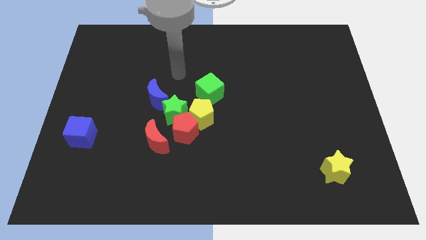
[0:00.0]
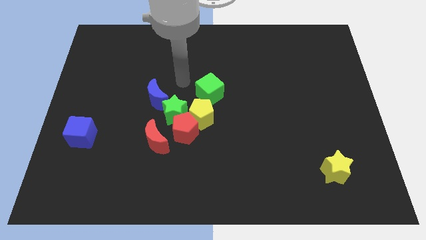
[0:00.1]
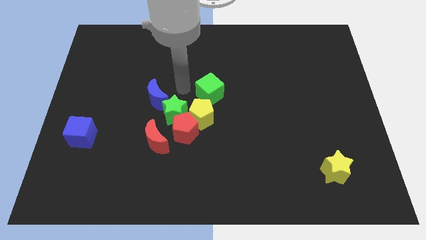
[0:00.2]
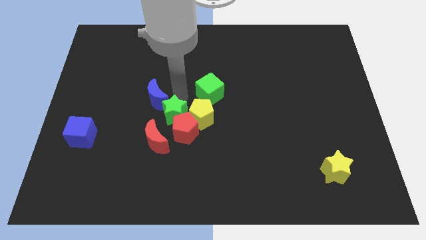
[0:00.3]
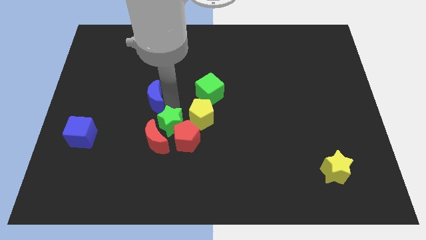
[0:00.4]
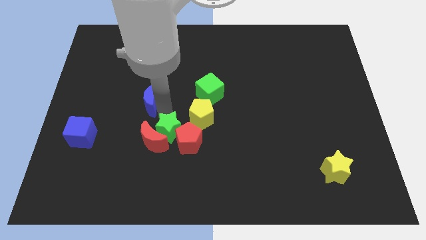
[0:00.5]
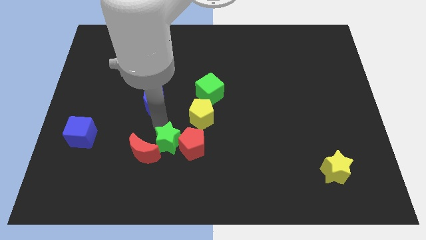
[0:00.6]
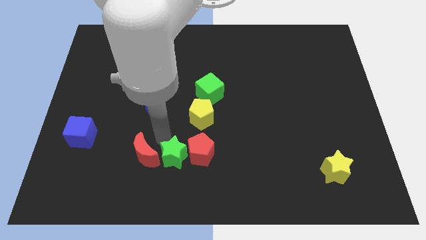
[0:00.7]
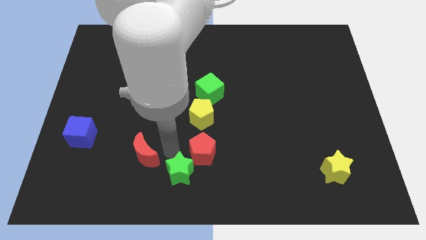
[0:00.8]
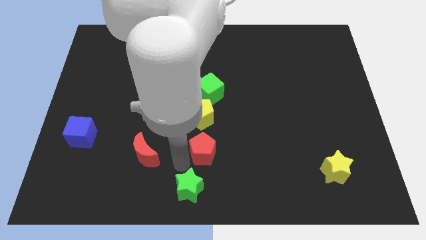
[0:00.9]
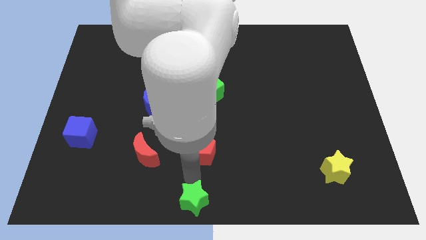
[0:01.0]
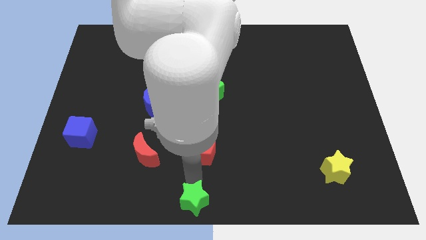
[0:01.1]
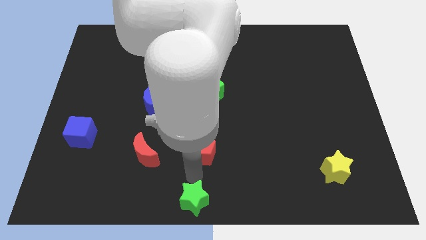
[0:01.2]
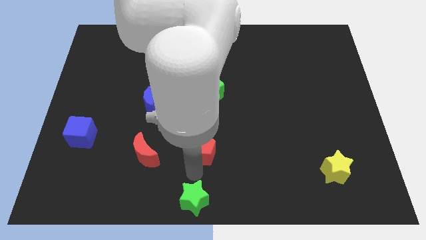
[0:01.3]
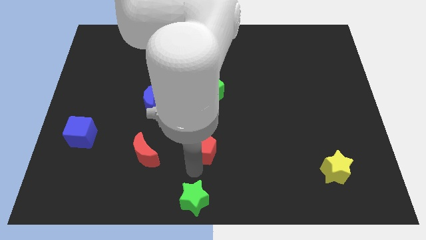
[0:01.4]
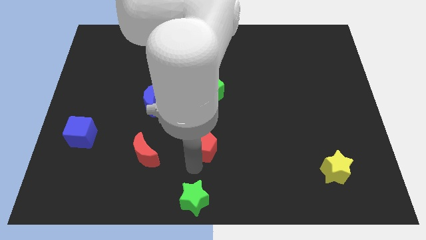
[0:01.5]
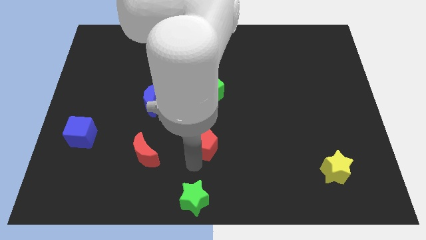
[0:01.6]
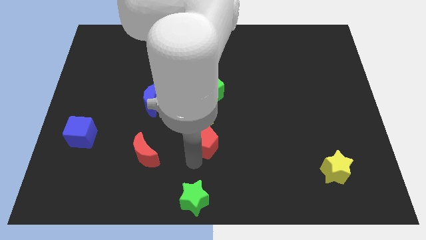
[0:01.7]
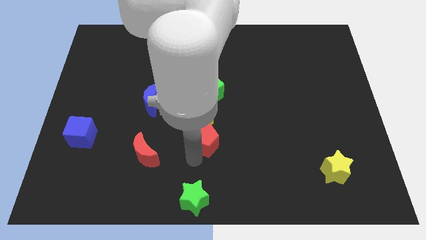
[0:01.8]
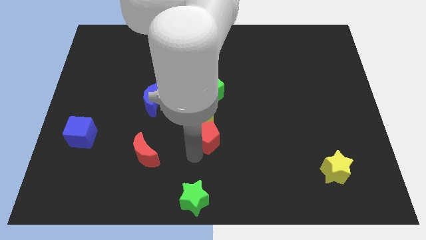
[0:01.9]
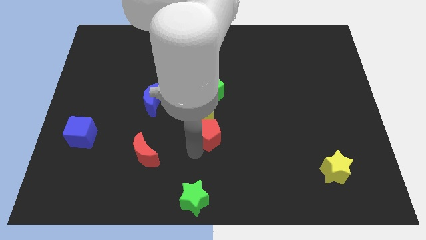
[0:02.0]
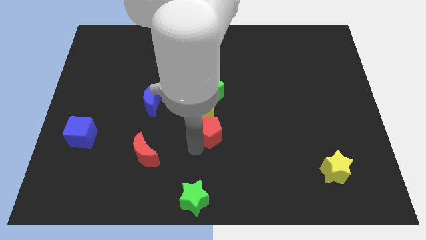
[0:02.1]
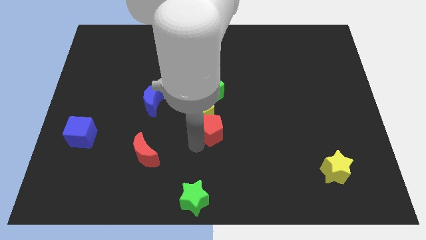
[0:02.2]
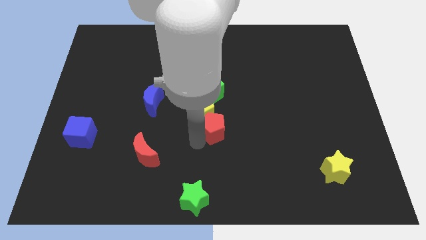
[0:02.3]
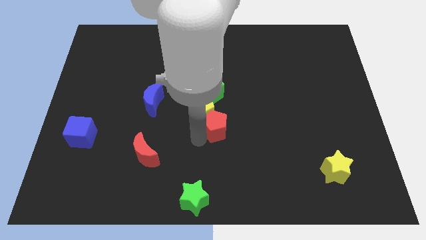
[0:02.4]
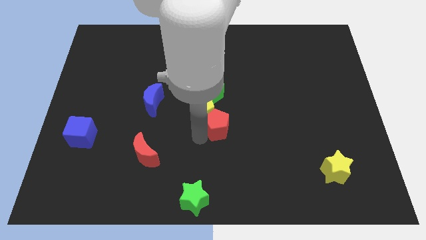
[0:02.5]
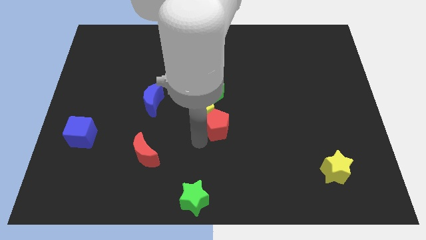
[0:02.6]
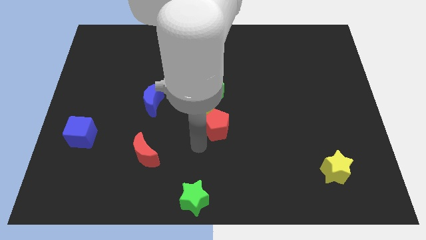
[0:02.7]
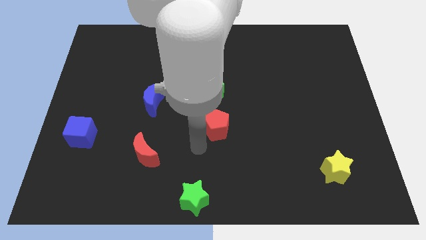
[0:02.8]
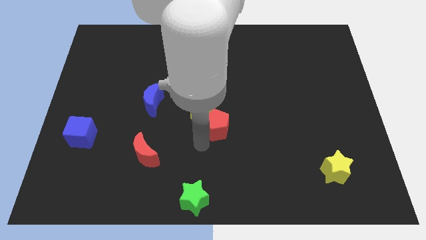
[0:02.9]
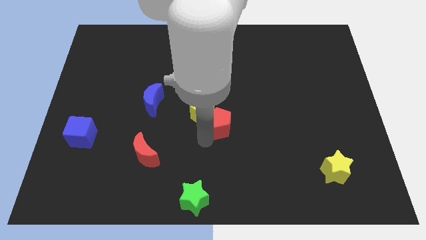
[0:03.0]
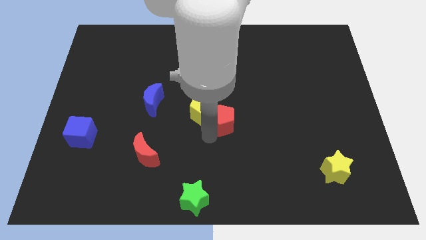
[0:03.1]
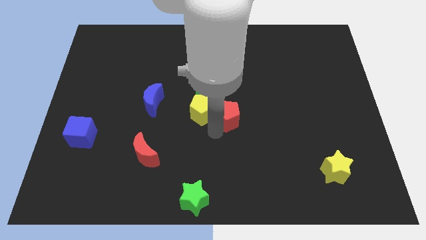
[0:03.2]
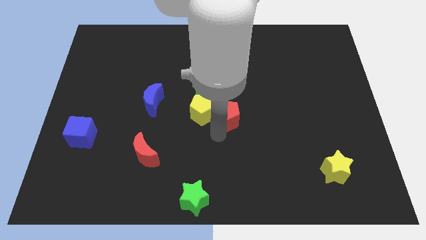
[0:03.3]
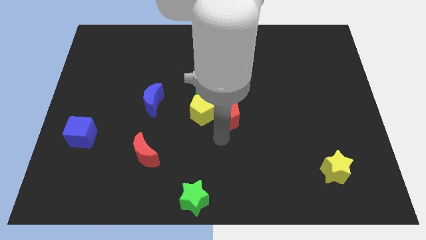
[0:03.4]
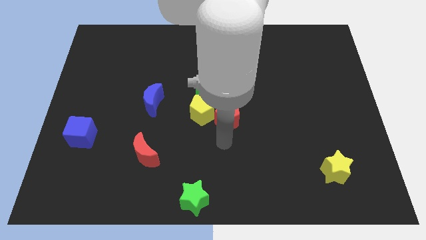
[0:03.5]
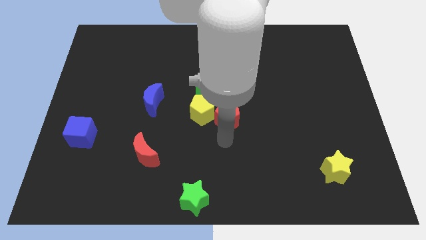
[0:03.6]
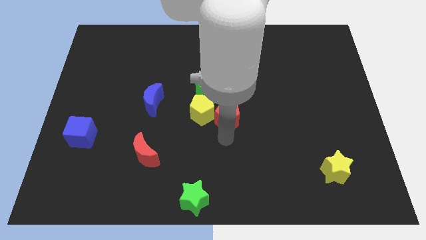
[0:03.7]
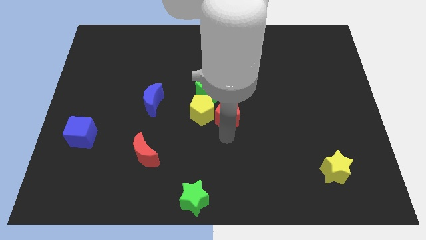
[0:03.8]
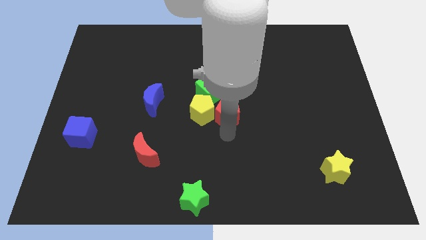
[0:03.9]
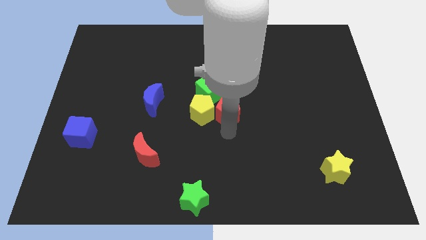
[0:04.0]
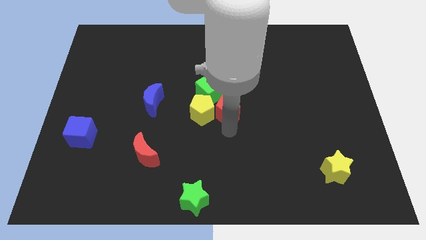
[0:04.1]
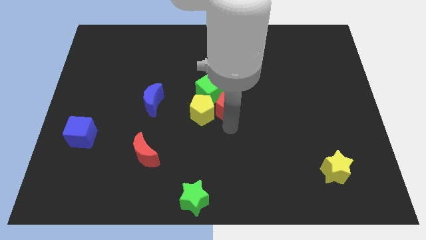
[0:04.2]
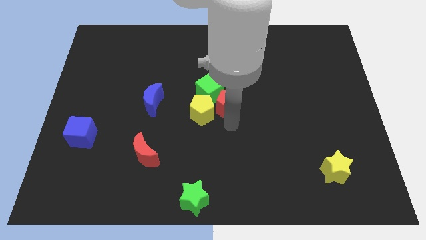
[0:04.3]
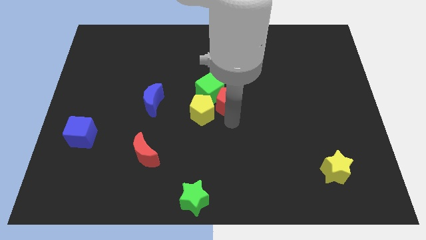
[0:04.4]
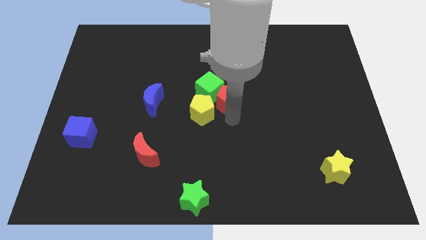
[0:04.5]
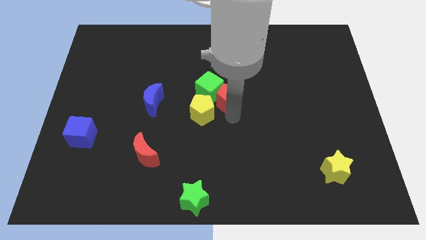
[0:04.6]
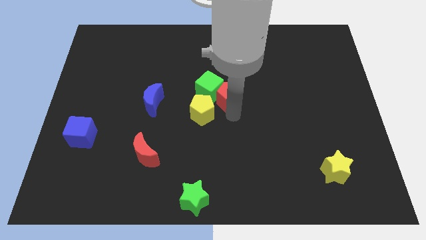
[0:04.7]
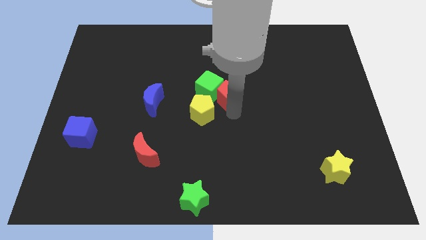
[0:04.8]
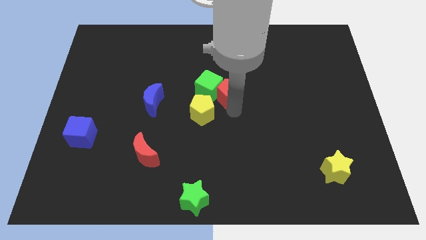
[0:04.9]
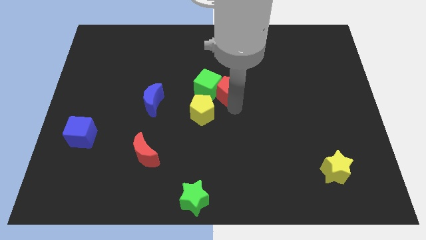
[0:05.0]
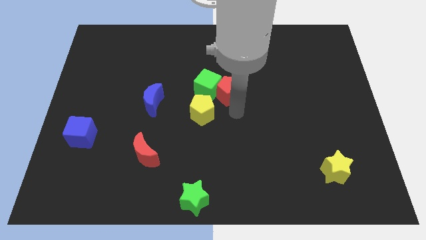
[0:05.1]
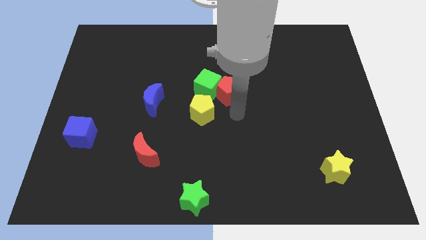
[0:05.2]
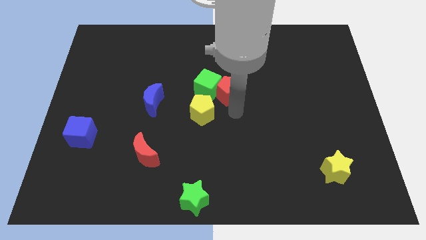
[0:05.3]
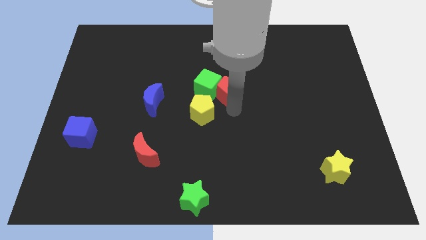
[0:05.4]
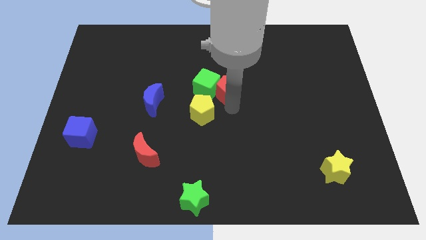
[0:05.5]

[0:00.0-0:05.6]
slightly slide the red pentagon up

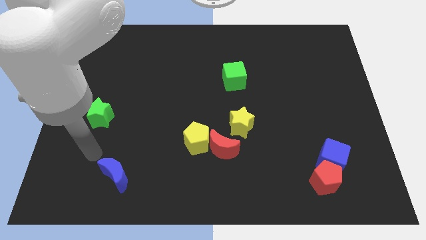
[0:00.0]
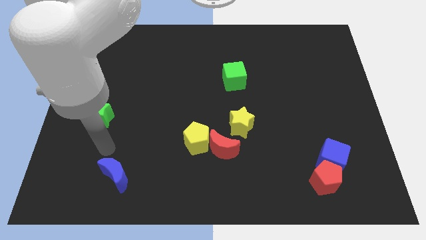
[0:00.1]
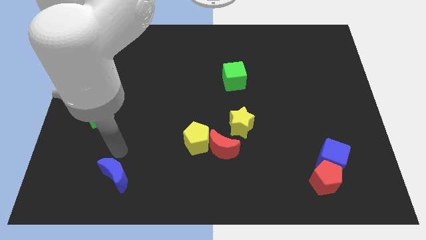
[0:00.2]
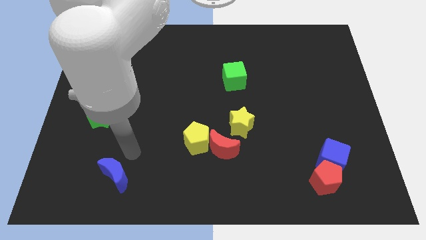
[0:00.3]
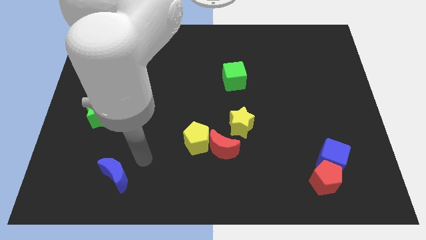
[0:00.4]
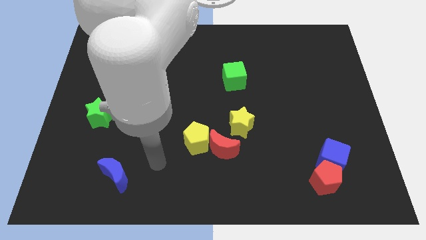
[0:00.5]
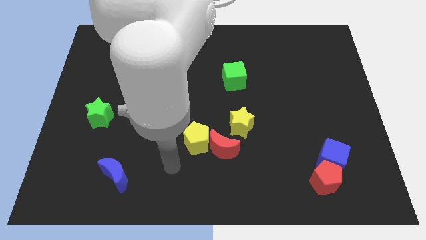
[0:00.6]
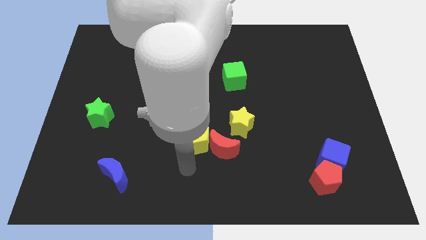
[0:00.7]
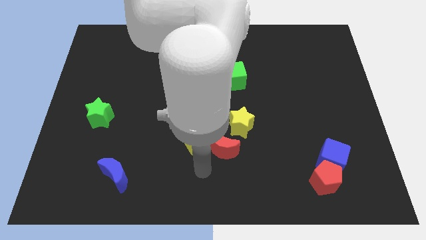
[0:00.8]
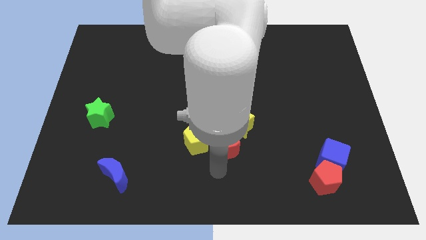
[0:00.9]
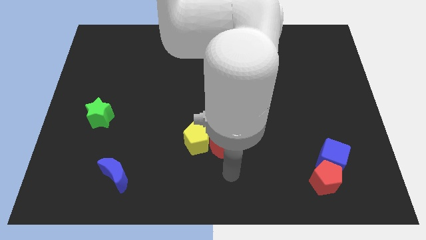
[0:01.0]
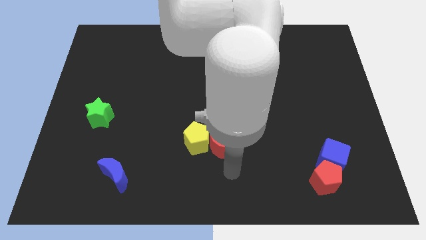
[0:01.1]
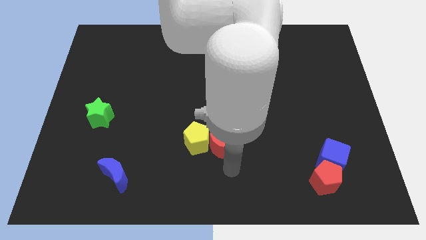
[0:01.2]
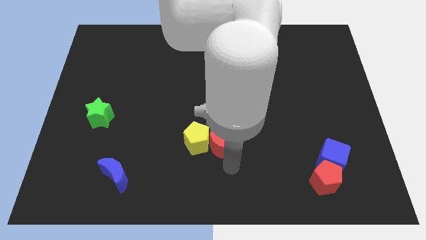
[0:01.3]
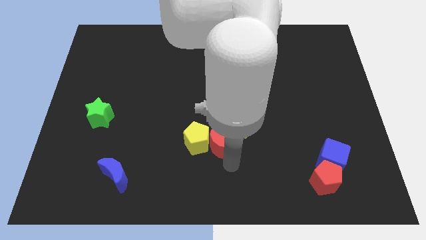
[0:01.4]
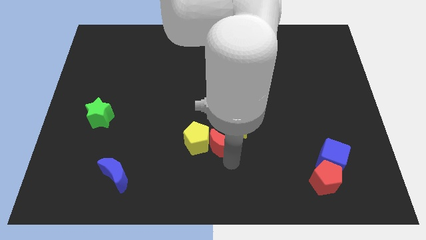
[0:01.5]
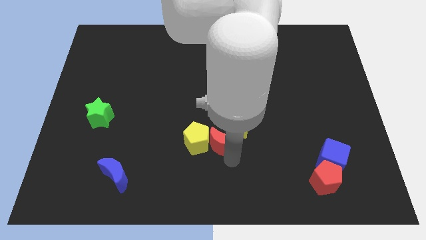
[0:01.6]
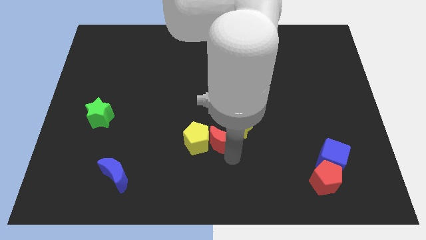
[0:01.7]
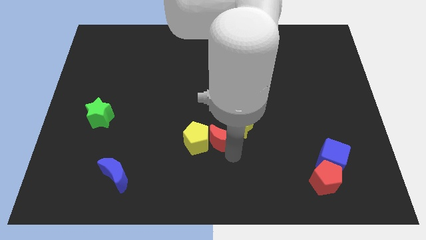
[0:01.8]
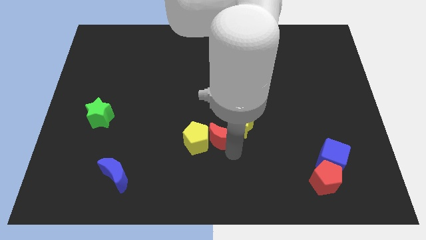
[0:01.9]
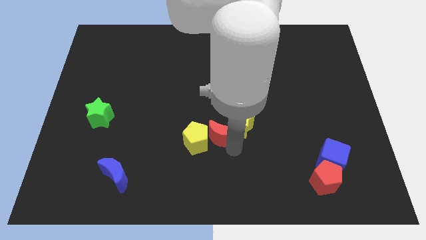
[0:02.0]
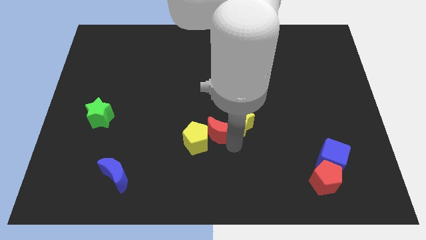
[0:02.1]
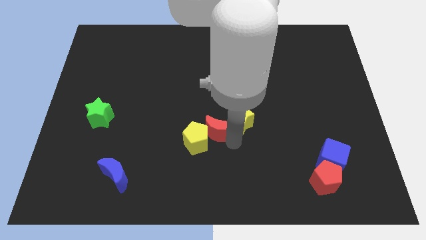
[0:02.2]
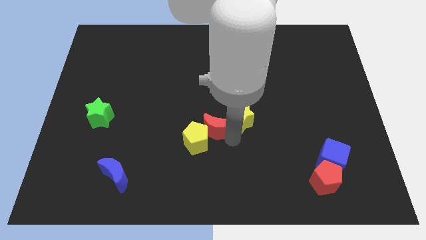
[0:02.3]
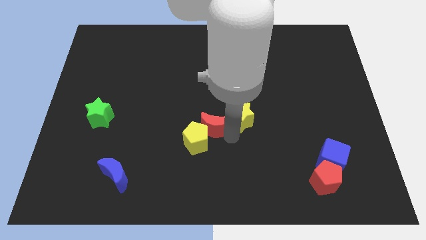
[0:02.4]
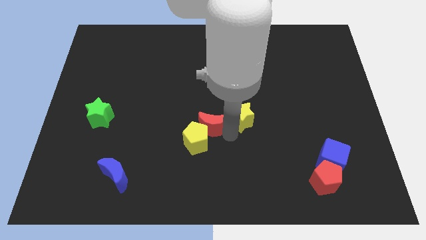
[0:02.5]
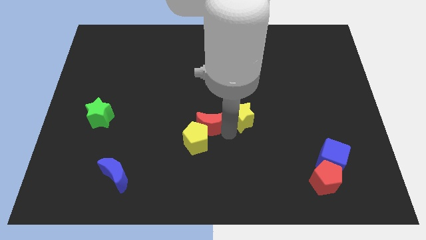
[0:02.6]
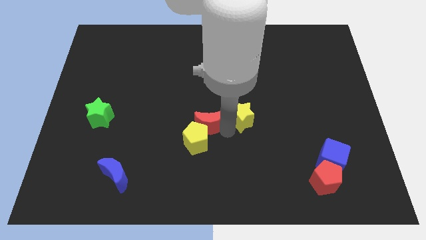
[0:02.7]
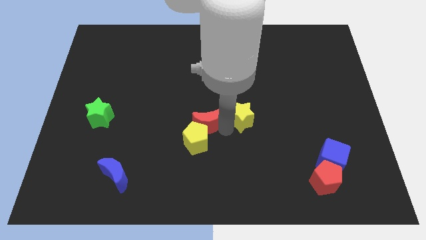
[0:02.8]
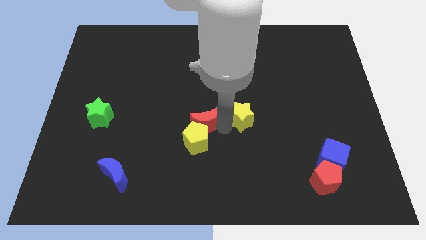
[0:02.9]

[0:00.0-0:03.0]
slightly push the red moon upwards and to the left diagonally
